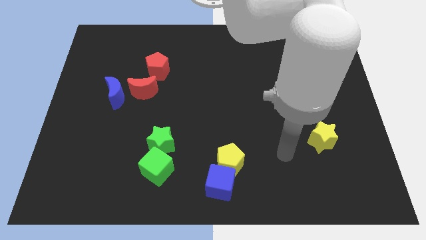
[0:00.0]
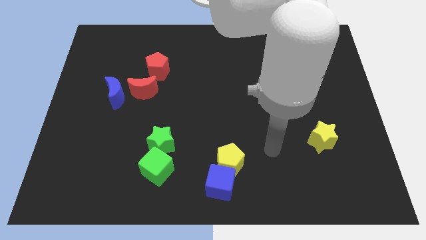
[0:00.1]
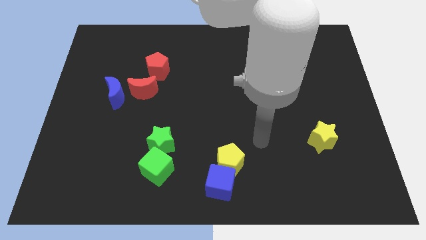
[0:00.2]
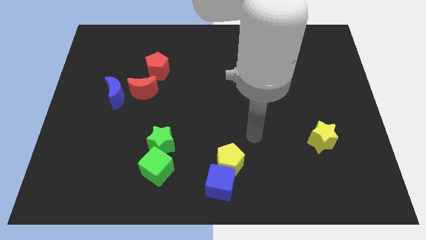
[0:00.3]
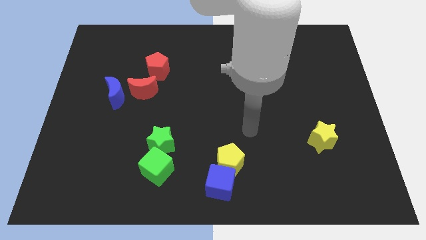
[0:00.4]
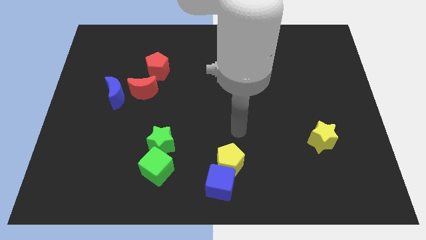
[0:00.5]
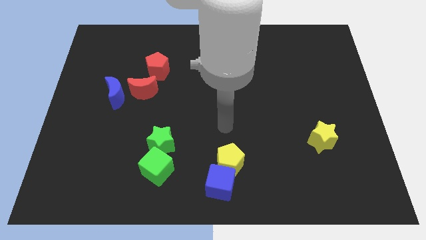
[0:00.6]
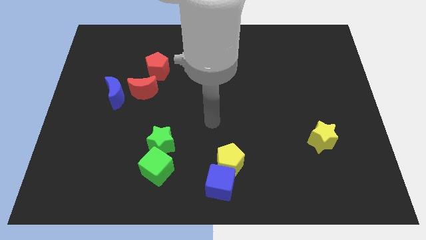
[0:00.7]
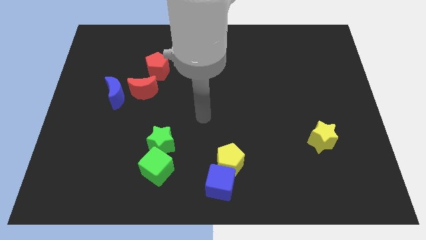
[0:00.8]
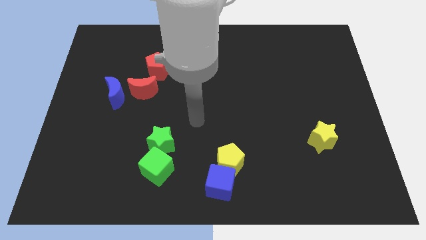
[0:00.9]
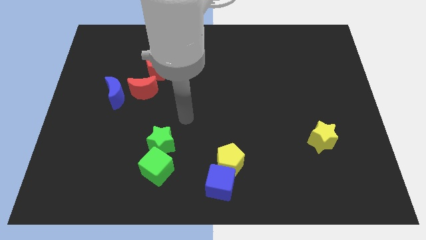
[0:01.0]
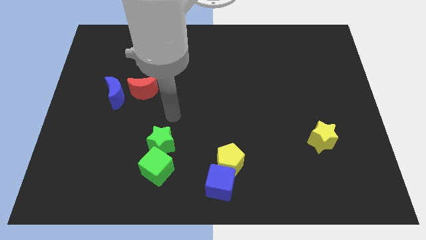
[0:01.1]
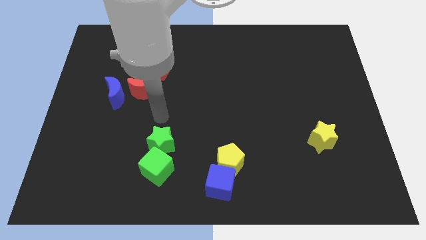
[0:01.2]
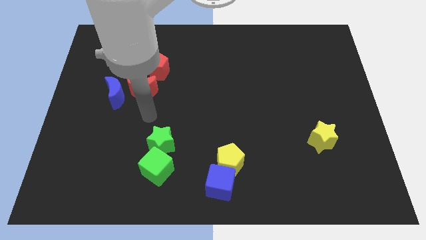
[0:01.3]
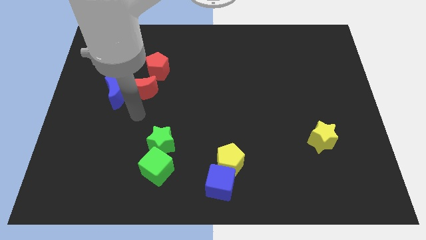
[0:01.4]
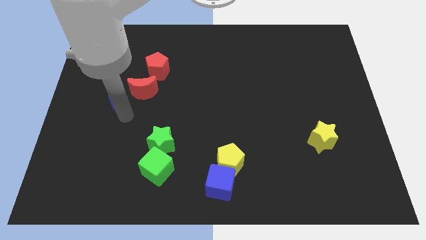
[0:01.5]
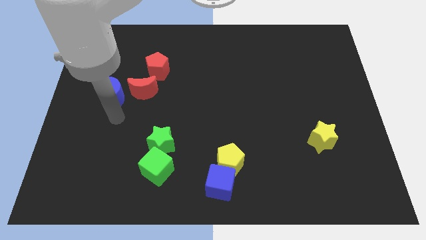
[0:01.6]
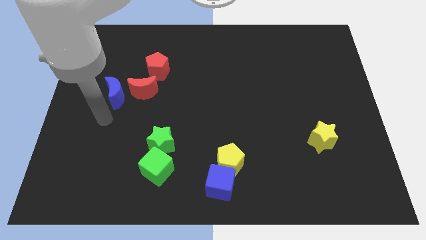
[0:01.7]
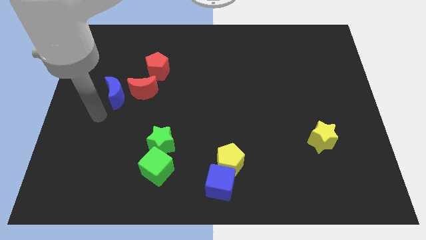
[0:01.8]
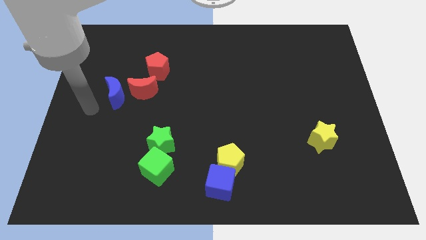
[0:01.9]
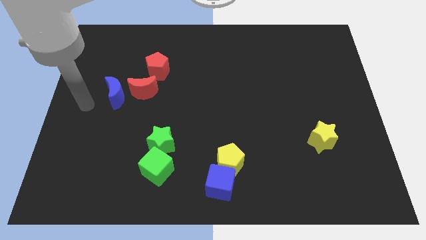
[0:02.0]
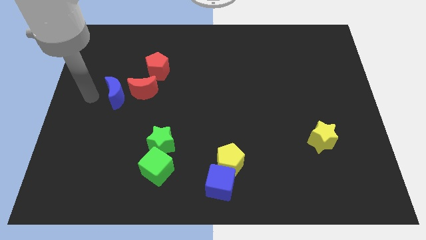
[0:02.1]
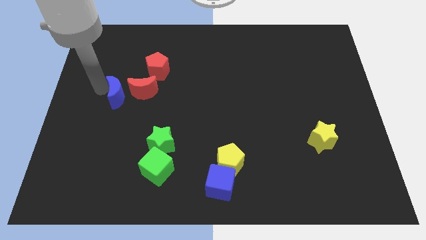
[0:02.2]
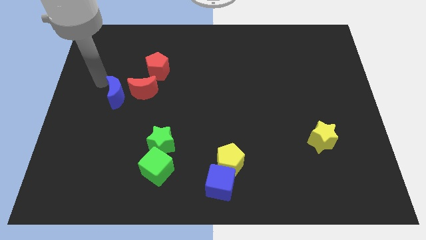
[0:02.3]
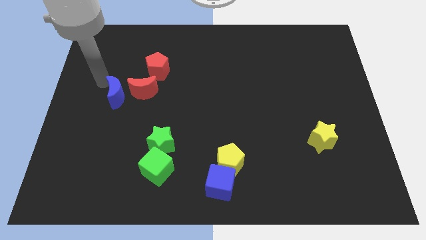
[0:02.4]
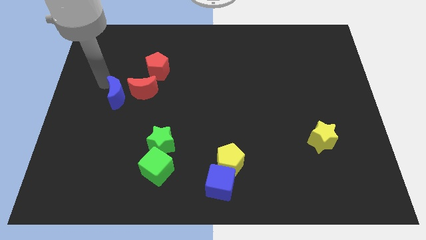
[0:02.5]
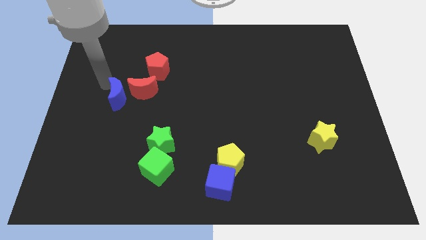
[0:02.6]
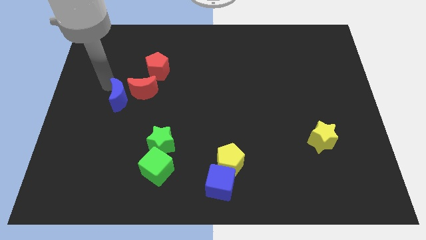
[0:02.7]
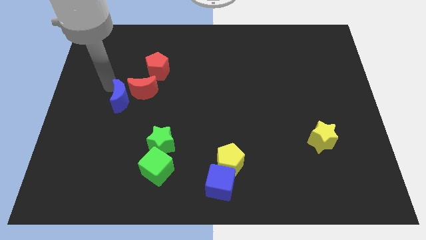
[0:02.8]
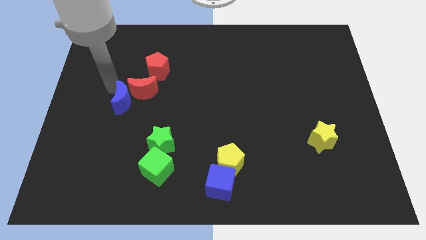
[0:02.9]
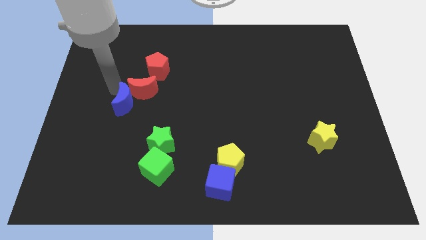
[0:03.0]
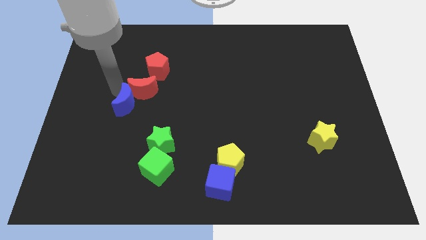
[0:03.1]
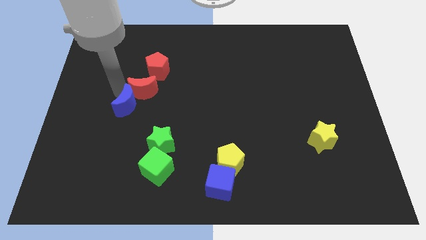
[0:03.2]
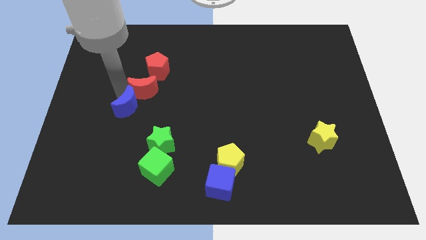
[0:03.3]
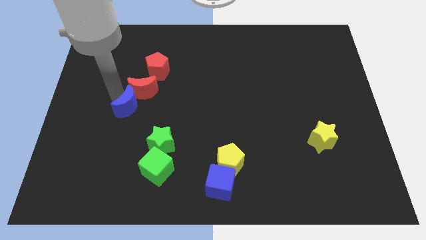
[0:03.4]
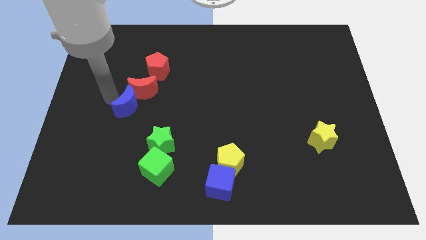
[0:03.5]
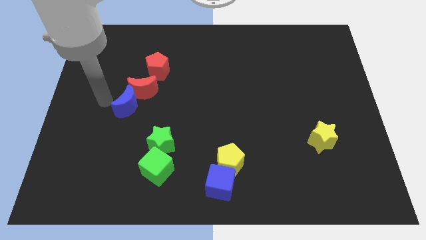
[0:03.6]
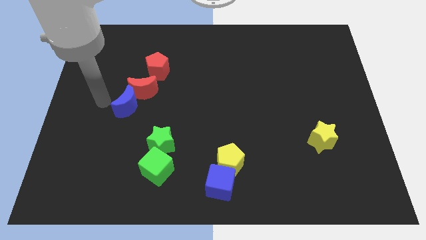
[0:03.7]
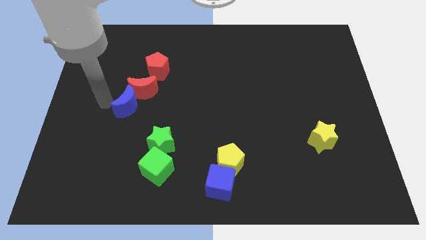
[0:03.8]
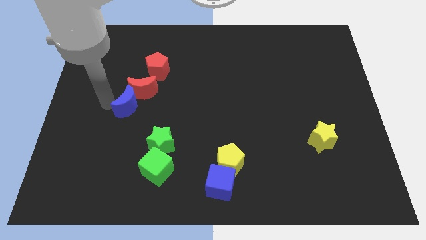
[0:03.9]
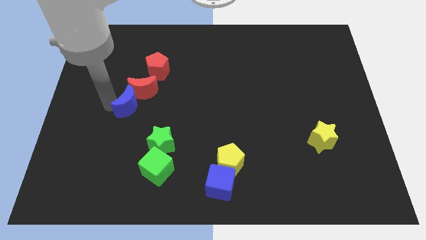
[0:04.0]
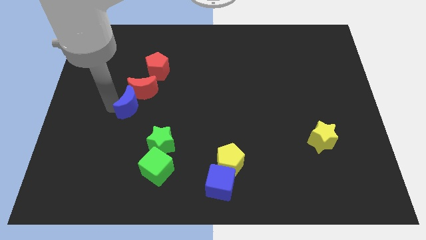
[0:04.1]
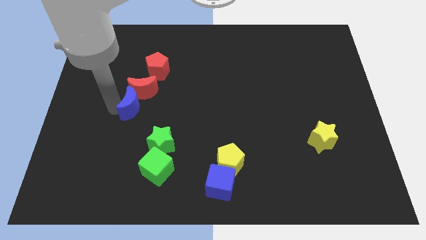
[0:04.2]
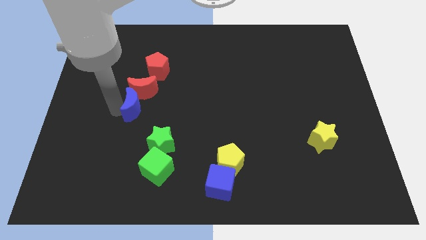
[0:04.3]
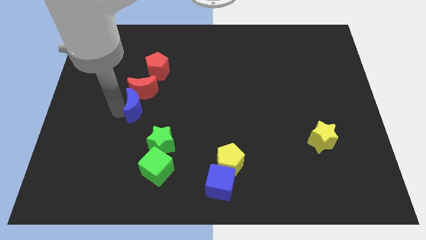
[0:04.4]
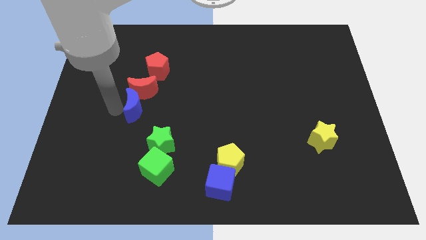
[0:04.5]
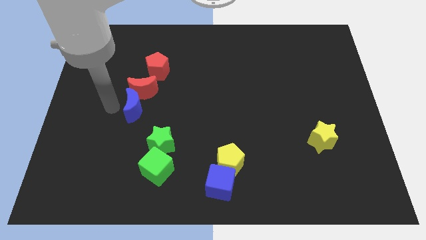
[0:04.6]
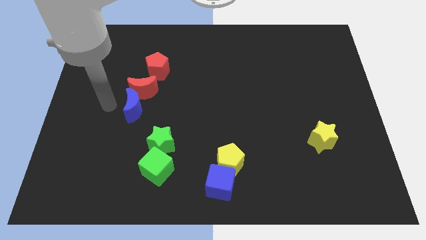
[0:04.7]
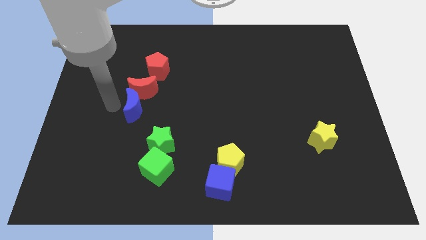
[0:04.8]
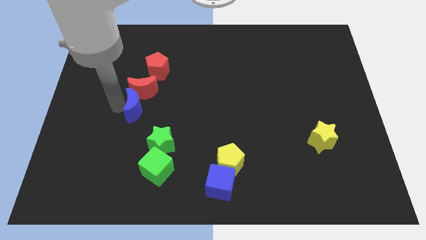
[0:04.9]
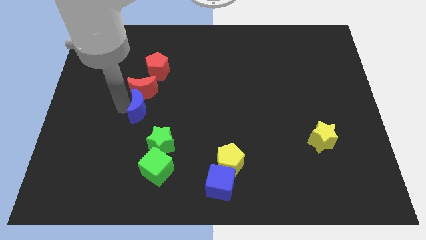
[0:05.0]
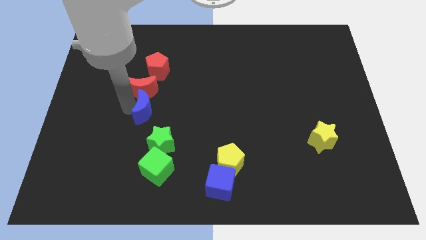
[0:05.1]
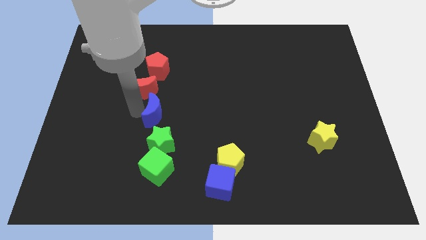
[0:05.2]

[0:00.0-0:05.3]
push the blue moon right a little bit

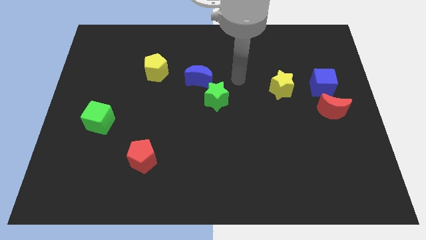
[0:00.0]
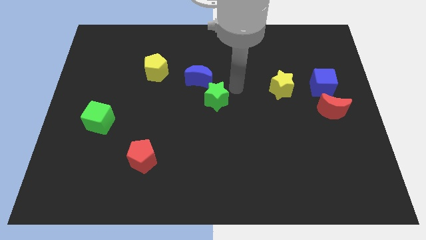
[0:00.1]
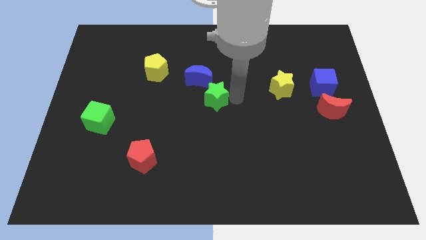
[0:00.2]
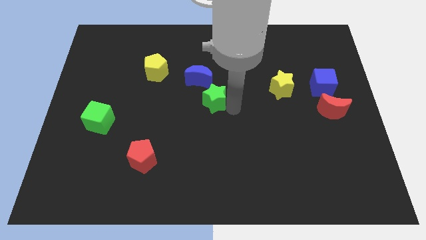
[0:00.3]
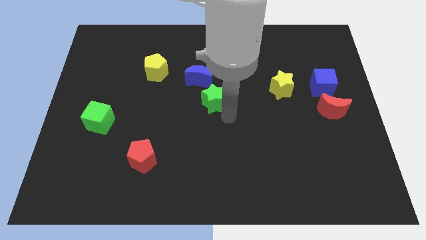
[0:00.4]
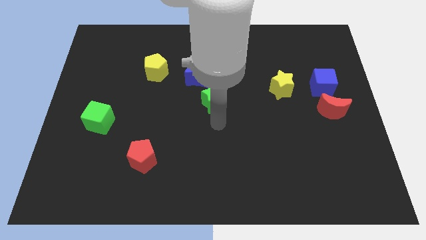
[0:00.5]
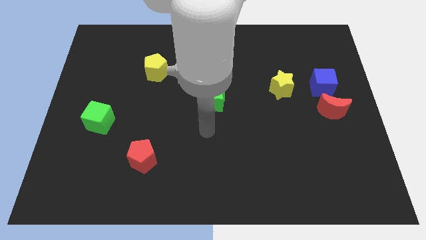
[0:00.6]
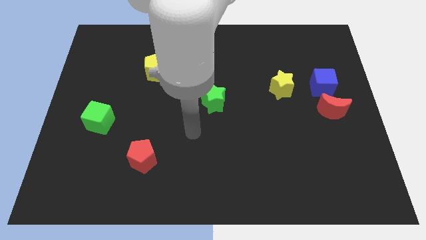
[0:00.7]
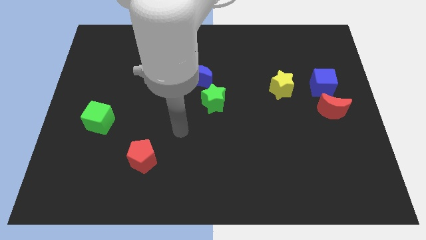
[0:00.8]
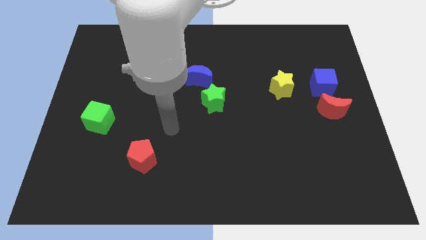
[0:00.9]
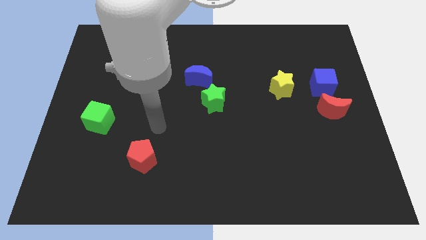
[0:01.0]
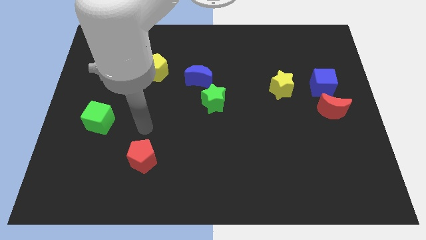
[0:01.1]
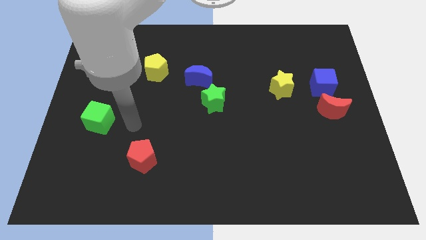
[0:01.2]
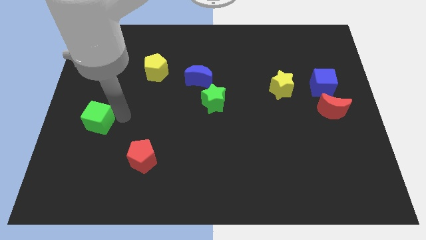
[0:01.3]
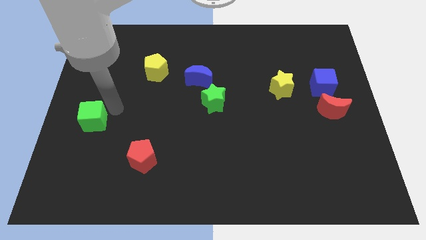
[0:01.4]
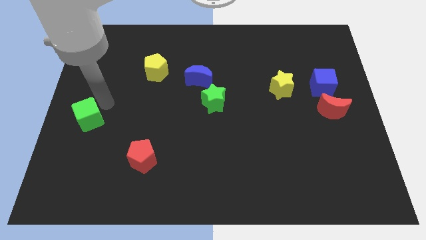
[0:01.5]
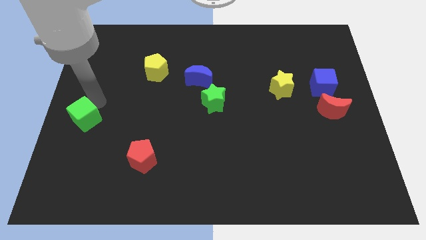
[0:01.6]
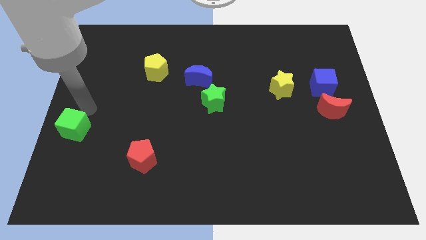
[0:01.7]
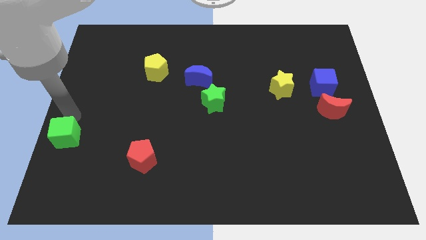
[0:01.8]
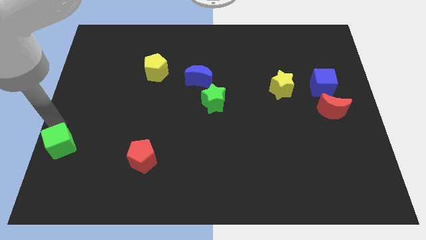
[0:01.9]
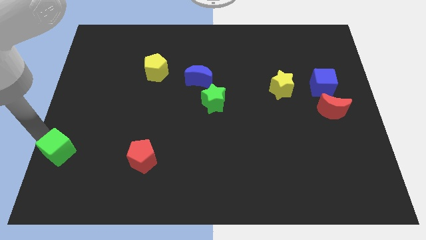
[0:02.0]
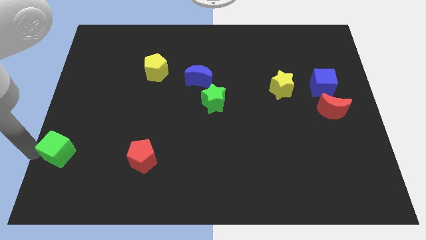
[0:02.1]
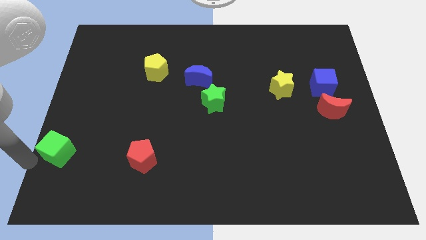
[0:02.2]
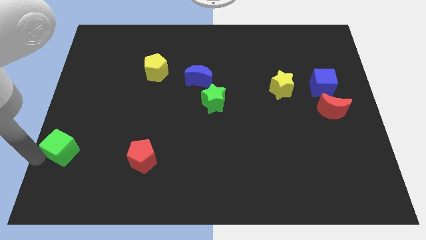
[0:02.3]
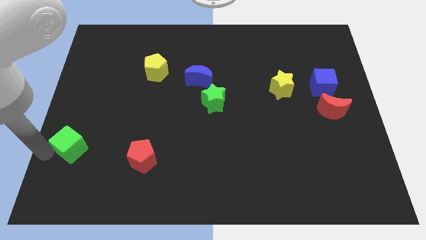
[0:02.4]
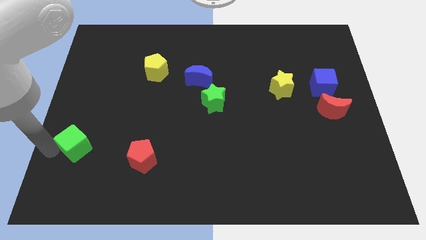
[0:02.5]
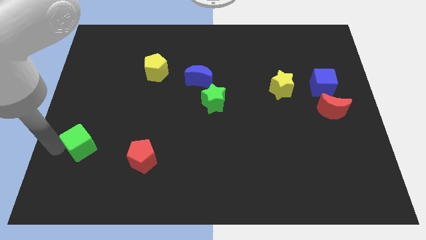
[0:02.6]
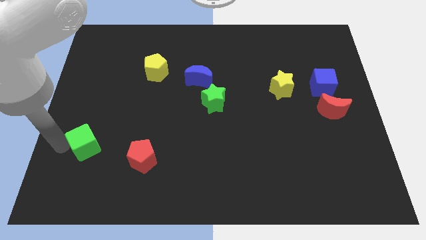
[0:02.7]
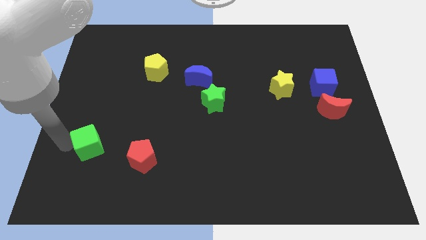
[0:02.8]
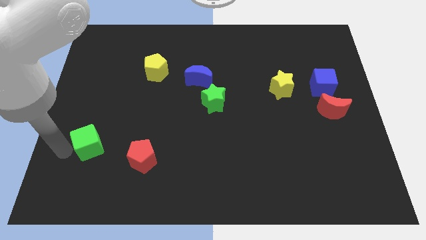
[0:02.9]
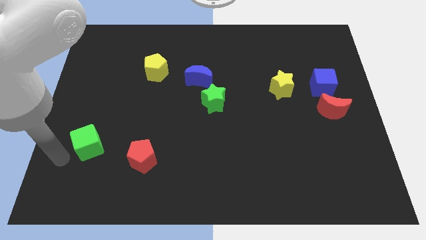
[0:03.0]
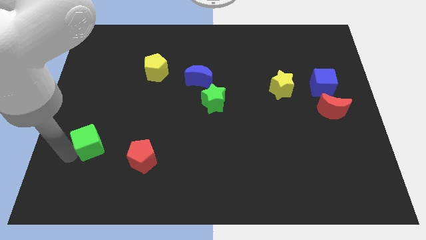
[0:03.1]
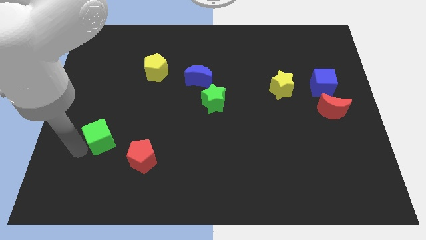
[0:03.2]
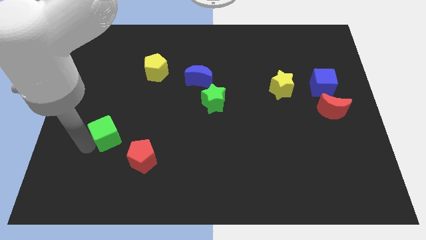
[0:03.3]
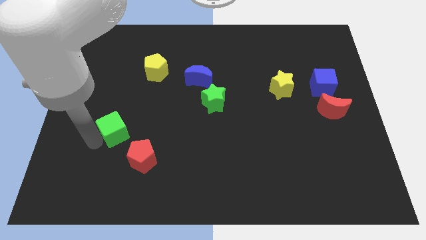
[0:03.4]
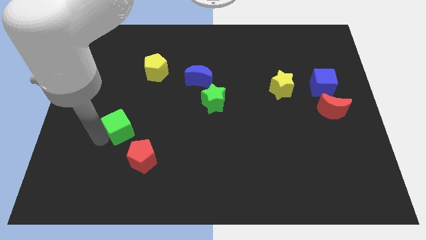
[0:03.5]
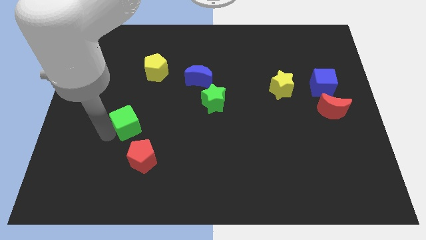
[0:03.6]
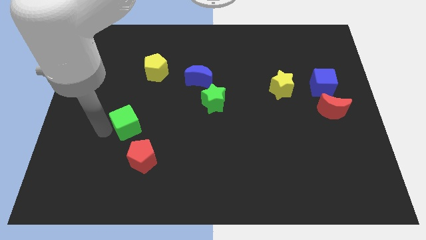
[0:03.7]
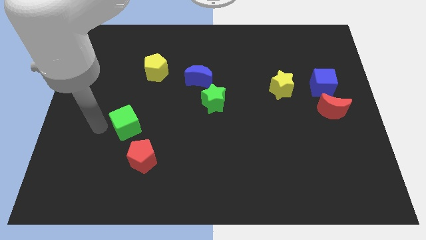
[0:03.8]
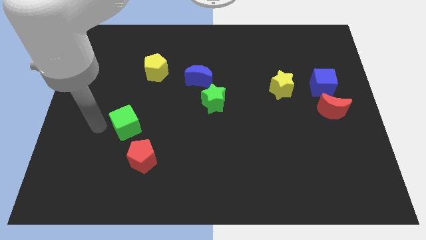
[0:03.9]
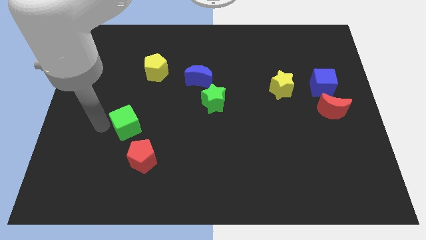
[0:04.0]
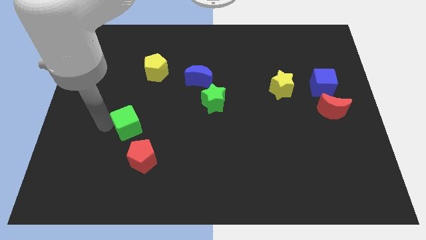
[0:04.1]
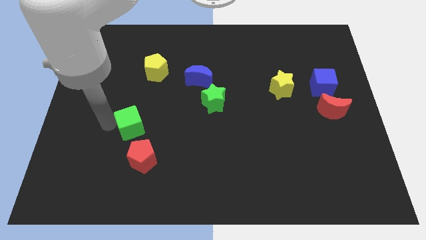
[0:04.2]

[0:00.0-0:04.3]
move the green cube to the right slightly
